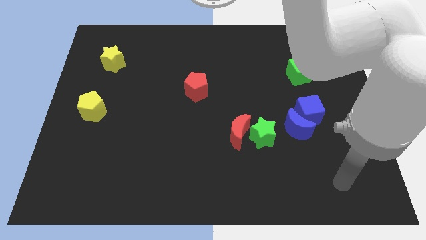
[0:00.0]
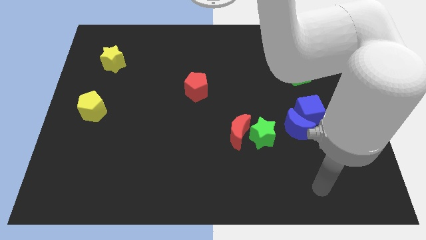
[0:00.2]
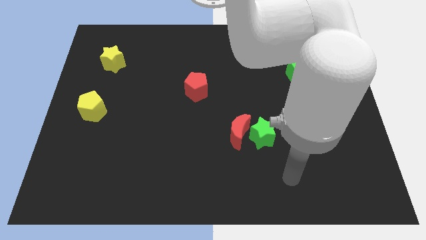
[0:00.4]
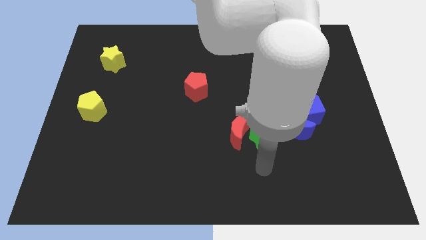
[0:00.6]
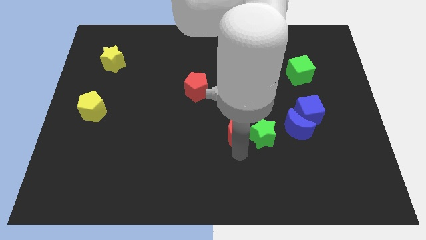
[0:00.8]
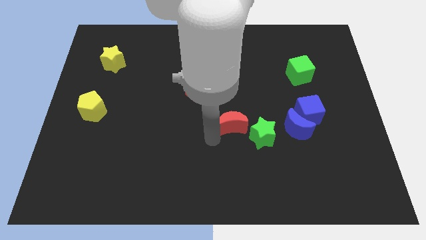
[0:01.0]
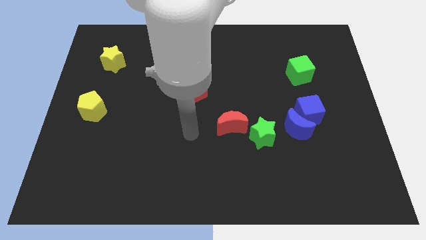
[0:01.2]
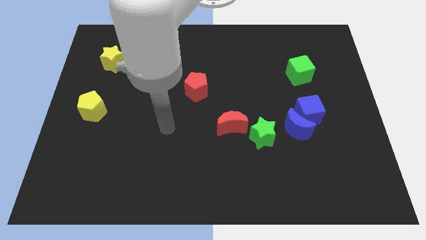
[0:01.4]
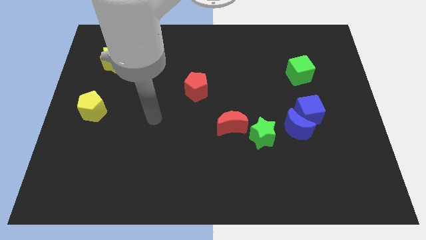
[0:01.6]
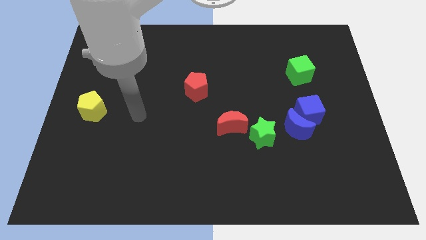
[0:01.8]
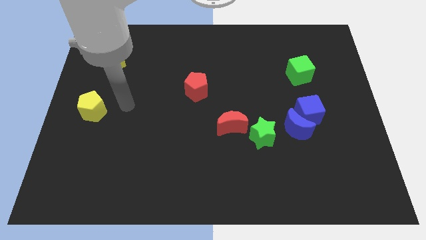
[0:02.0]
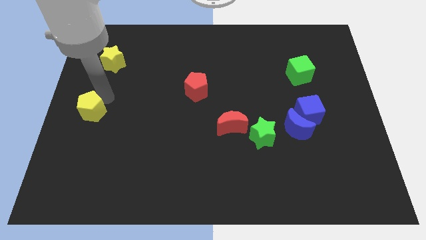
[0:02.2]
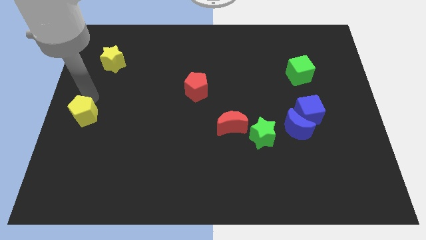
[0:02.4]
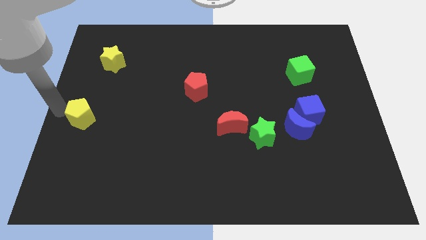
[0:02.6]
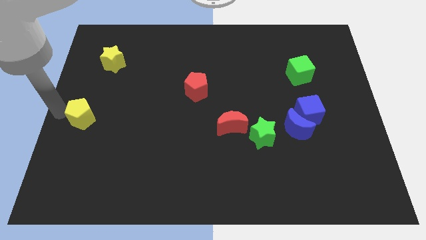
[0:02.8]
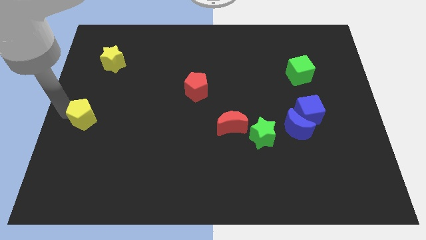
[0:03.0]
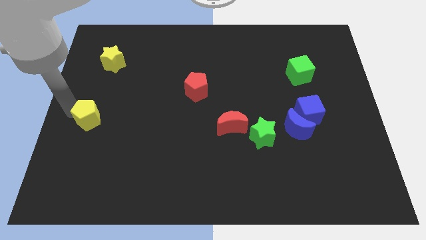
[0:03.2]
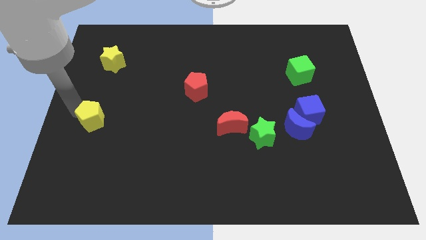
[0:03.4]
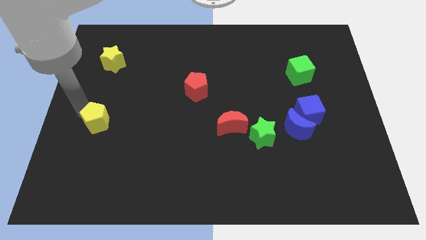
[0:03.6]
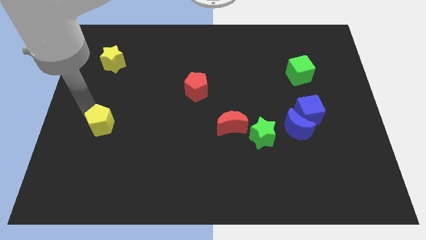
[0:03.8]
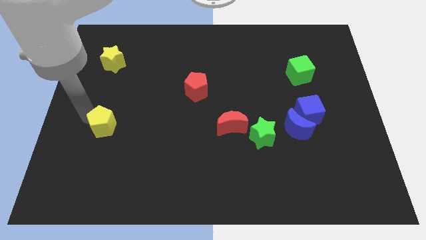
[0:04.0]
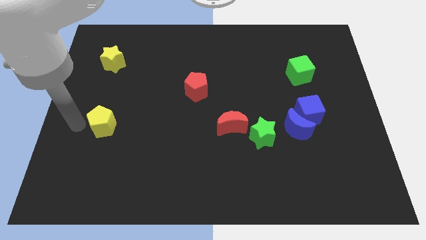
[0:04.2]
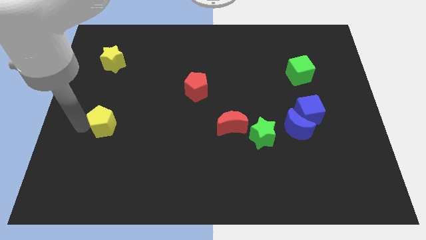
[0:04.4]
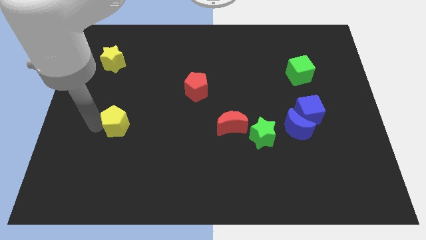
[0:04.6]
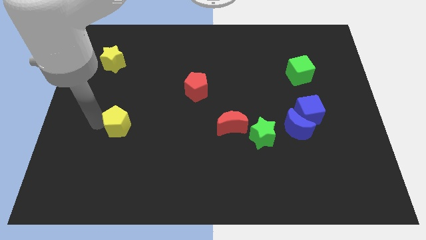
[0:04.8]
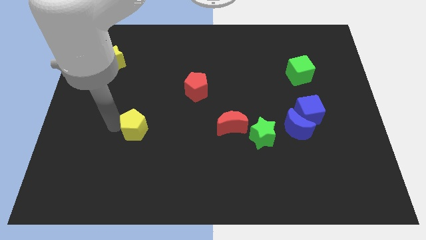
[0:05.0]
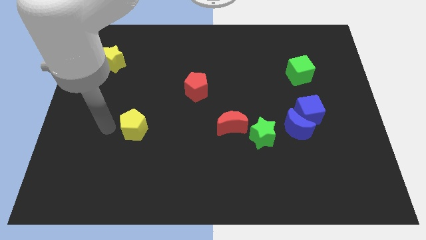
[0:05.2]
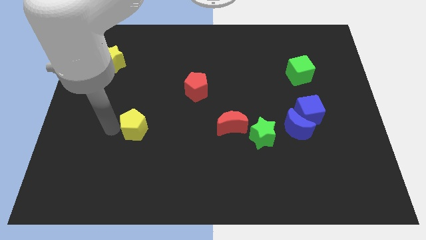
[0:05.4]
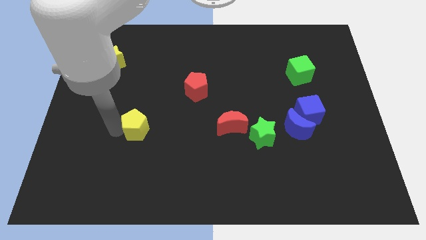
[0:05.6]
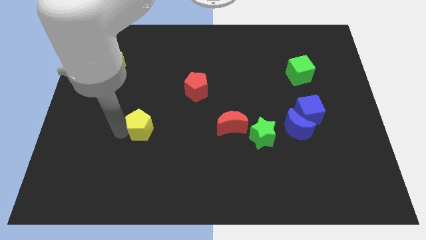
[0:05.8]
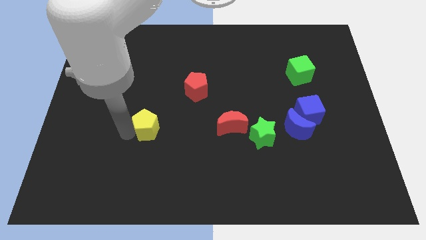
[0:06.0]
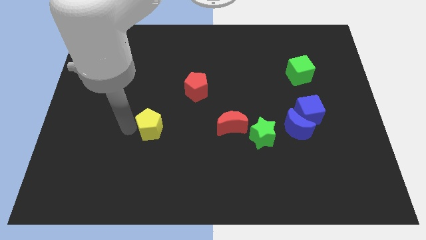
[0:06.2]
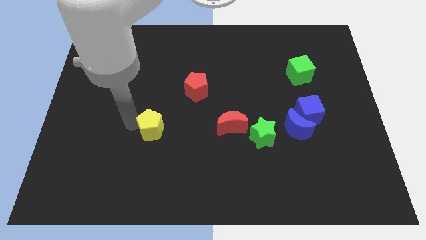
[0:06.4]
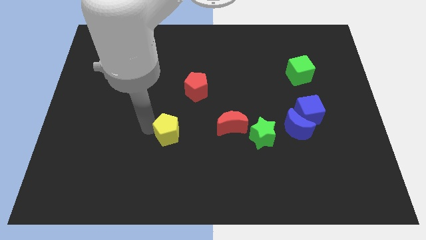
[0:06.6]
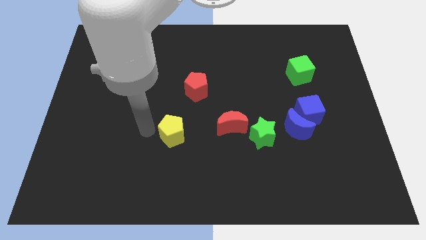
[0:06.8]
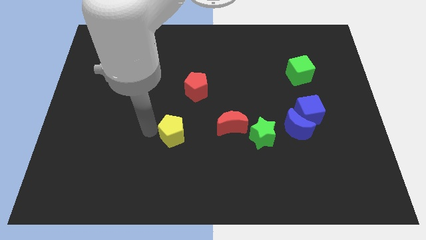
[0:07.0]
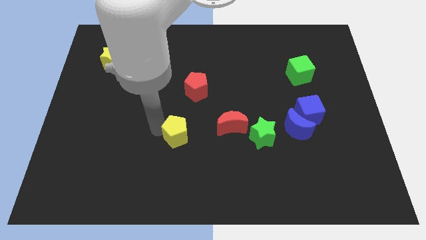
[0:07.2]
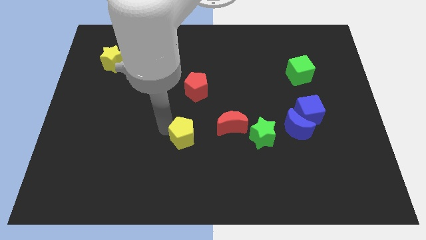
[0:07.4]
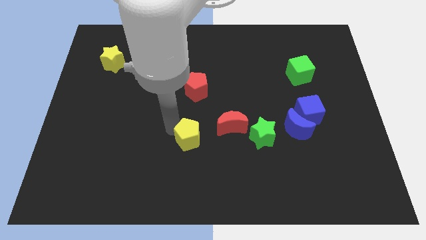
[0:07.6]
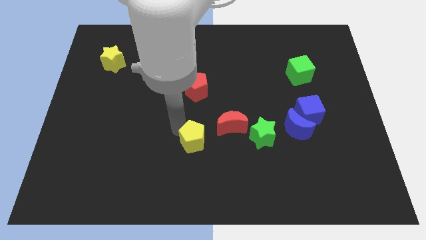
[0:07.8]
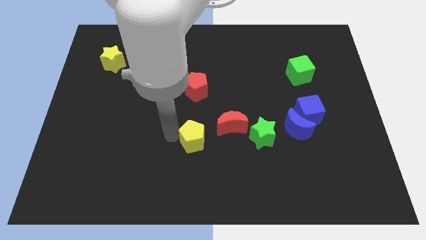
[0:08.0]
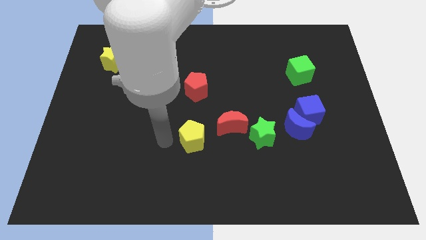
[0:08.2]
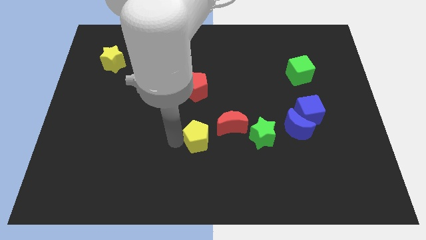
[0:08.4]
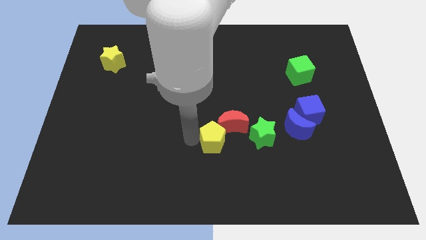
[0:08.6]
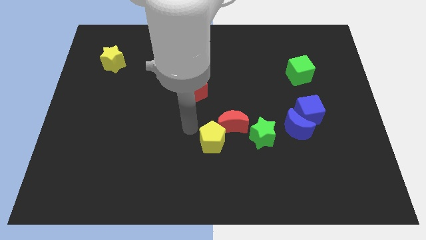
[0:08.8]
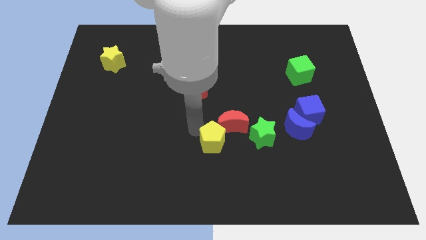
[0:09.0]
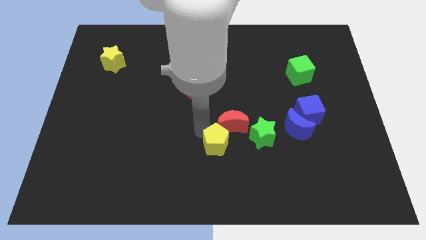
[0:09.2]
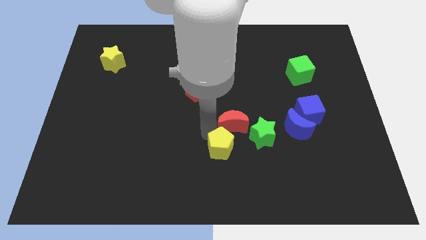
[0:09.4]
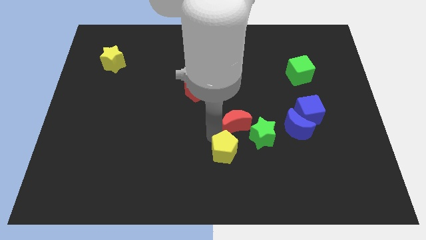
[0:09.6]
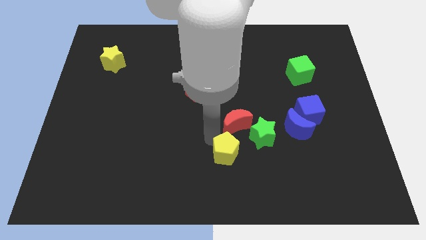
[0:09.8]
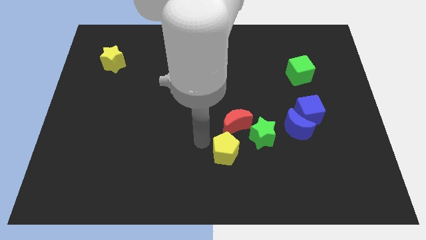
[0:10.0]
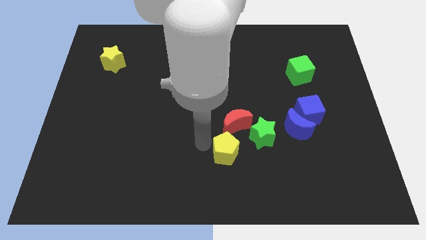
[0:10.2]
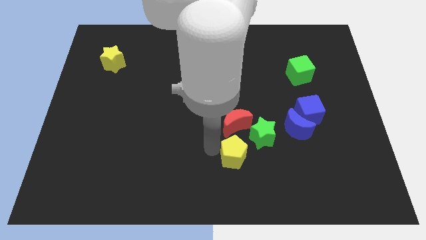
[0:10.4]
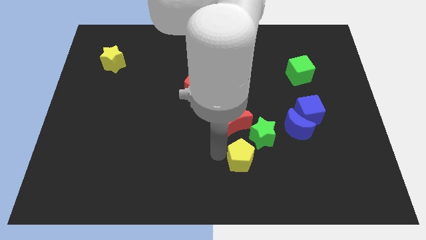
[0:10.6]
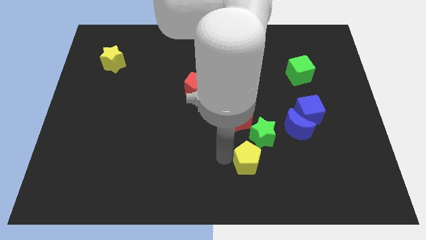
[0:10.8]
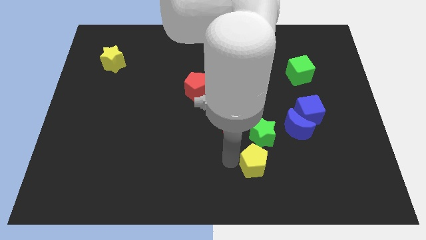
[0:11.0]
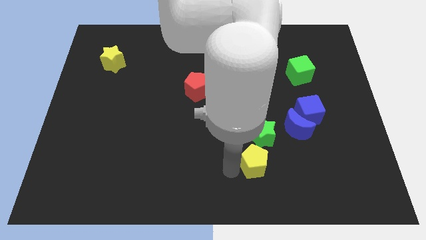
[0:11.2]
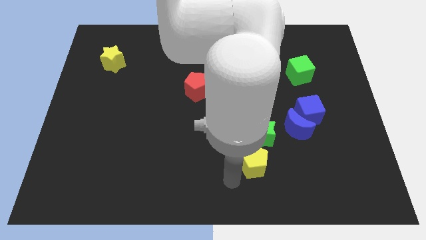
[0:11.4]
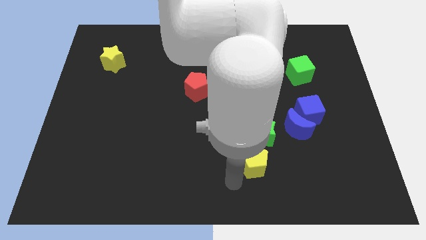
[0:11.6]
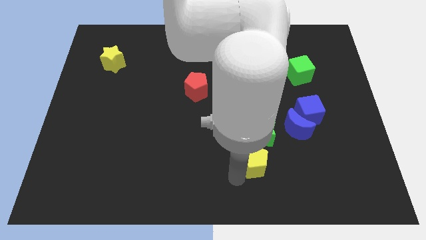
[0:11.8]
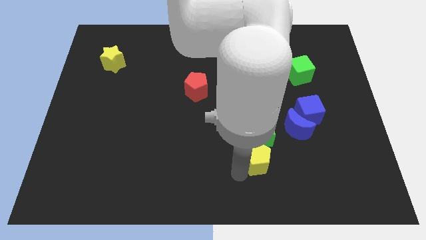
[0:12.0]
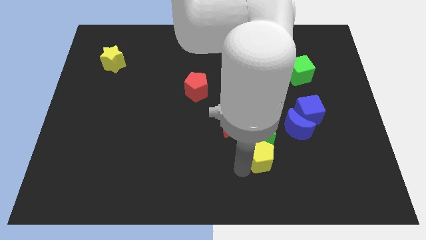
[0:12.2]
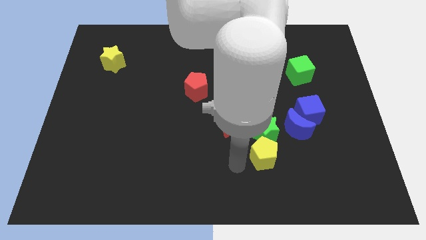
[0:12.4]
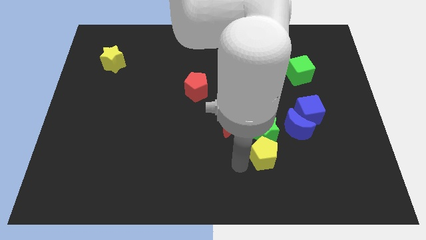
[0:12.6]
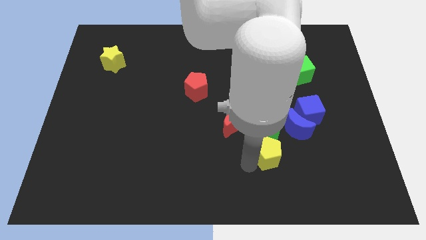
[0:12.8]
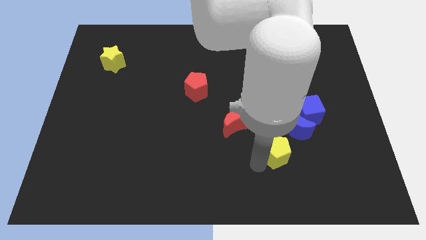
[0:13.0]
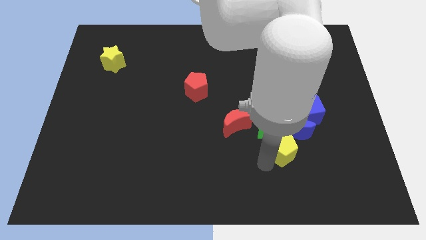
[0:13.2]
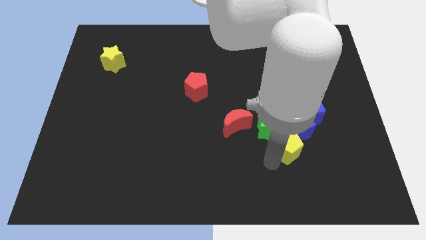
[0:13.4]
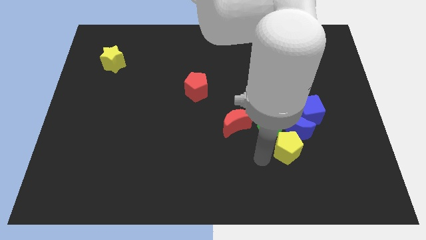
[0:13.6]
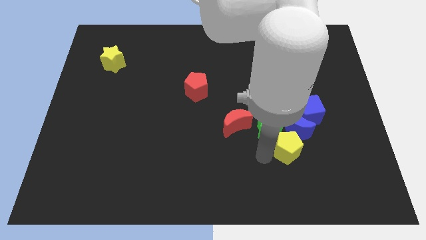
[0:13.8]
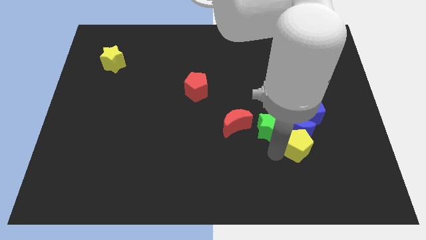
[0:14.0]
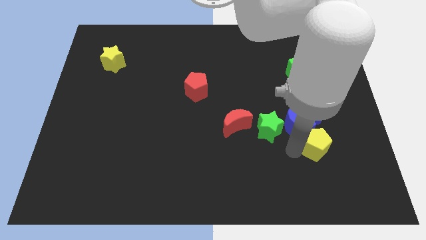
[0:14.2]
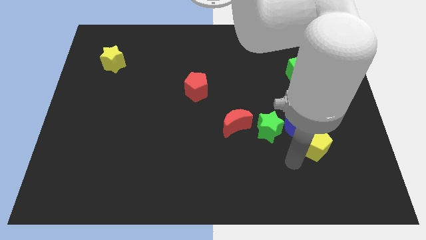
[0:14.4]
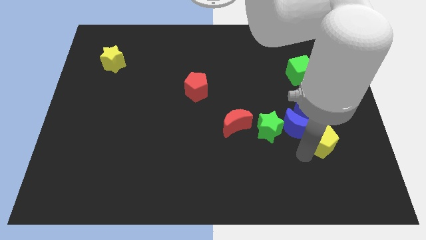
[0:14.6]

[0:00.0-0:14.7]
move the yellow pentagon to the bottom right of the blue cube
